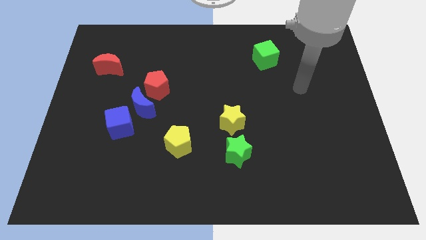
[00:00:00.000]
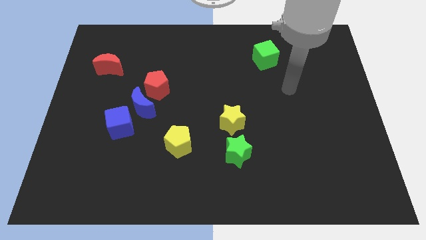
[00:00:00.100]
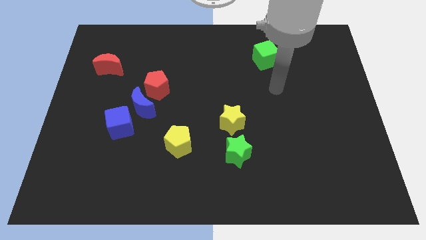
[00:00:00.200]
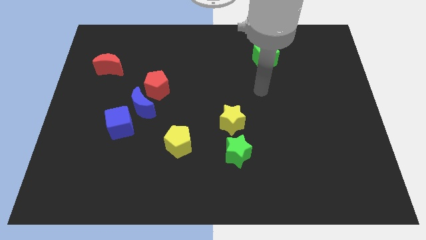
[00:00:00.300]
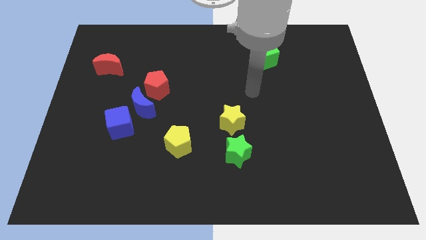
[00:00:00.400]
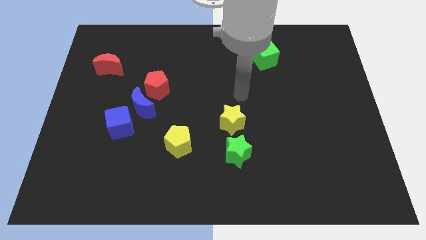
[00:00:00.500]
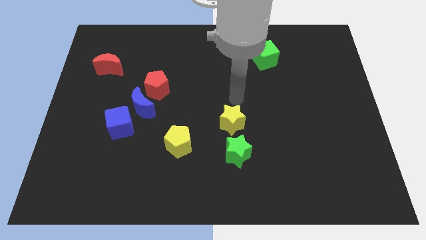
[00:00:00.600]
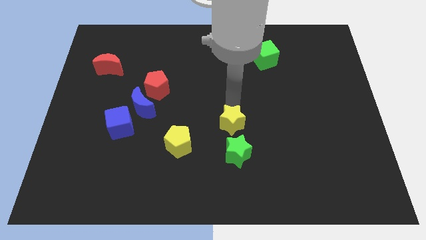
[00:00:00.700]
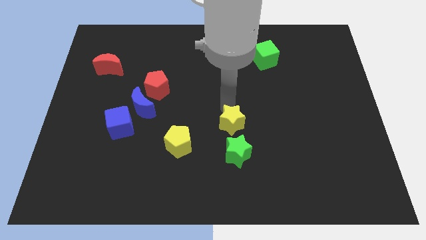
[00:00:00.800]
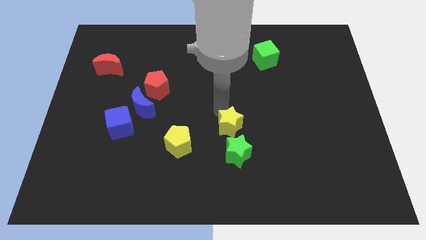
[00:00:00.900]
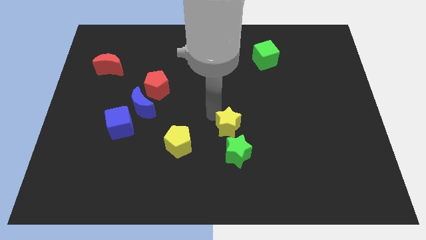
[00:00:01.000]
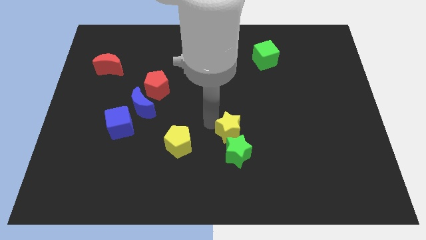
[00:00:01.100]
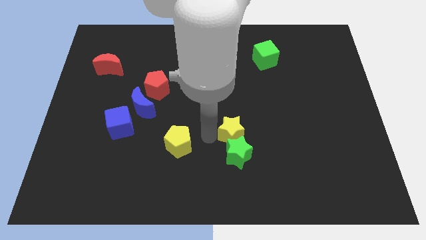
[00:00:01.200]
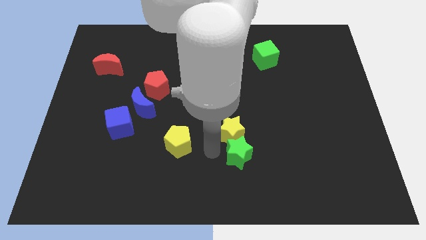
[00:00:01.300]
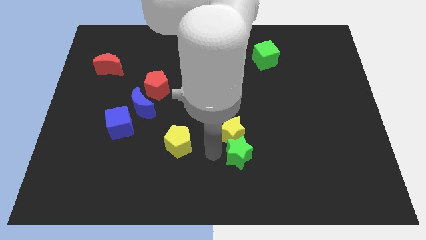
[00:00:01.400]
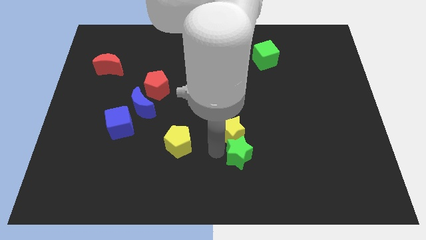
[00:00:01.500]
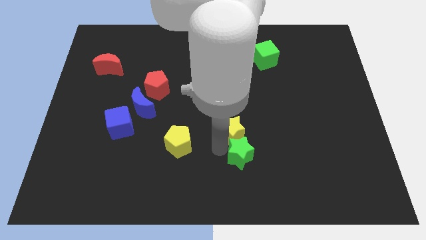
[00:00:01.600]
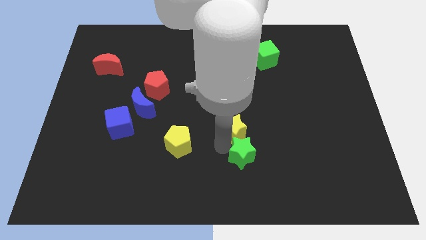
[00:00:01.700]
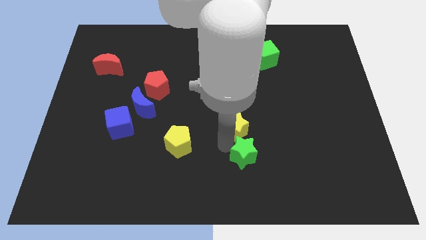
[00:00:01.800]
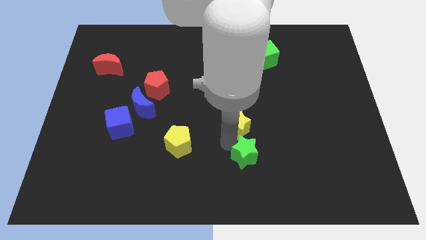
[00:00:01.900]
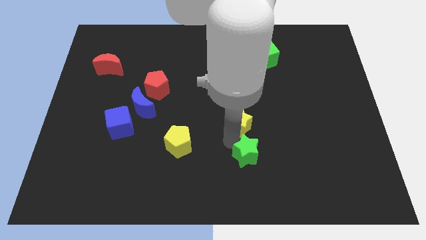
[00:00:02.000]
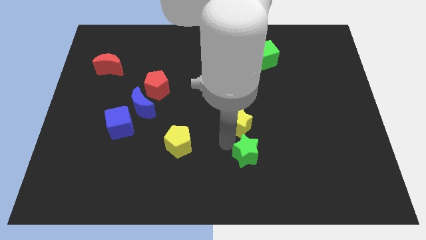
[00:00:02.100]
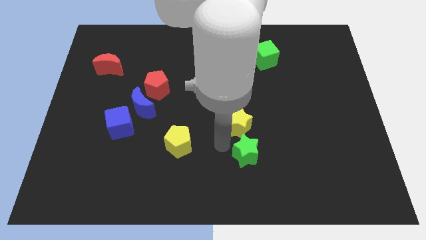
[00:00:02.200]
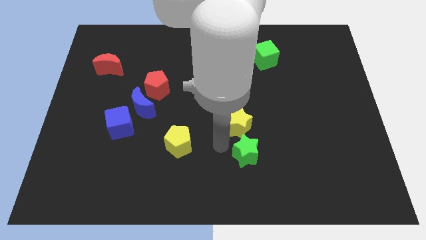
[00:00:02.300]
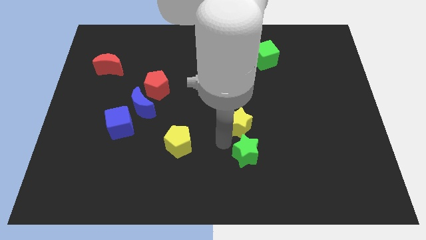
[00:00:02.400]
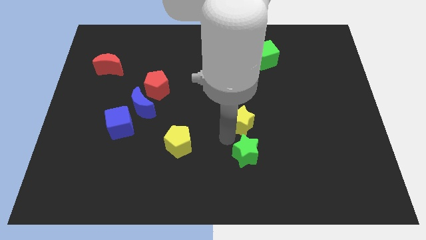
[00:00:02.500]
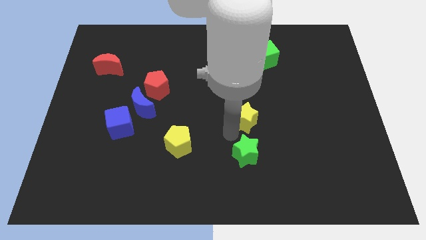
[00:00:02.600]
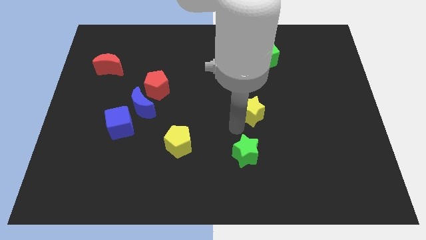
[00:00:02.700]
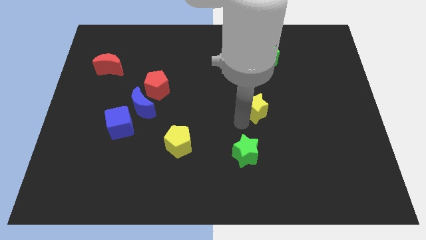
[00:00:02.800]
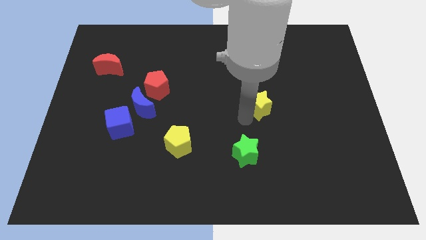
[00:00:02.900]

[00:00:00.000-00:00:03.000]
slide the yellow star a little bit upwards and to the right diagonally

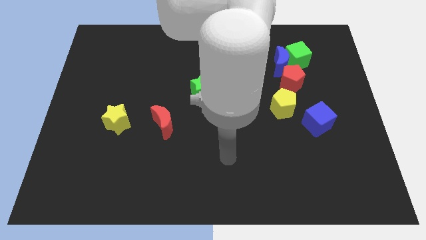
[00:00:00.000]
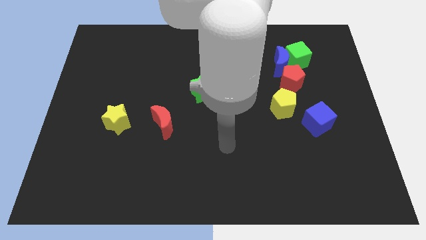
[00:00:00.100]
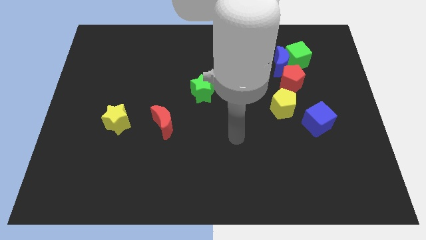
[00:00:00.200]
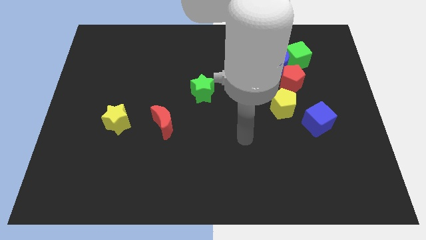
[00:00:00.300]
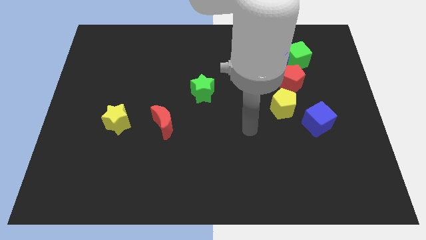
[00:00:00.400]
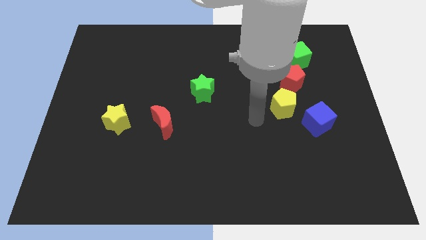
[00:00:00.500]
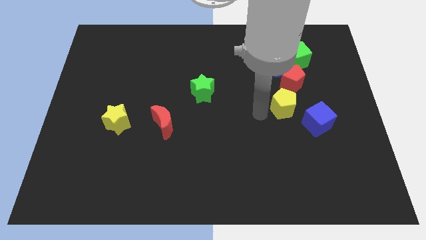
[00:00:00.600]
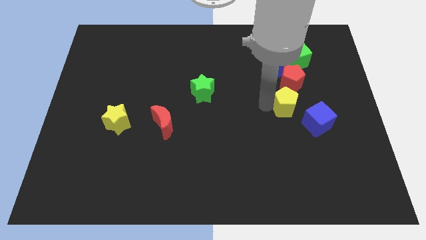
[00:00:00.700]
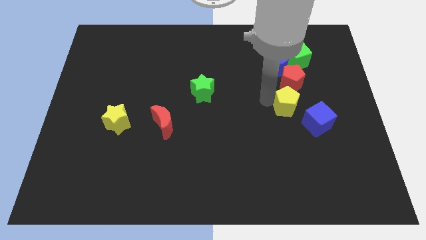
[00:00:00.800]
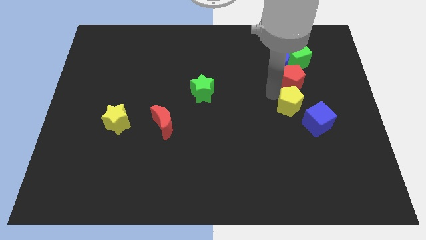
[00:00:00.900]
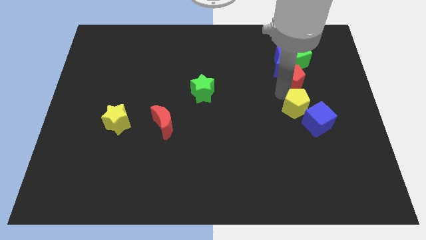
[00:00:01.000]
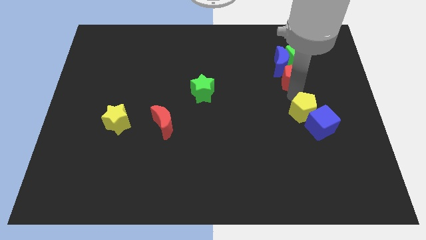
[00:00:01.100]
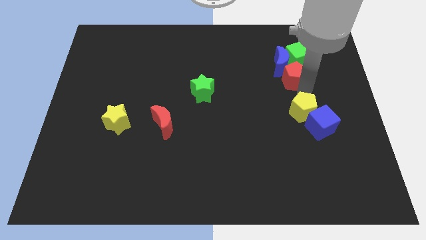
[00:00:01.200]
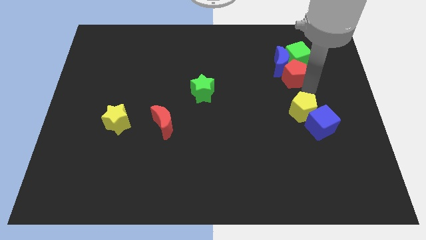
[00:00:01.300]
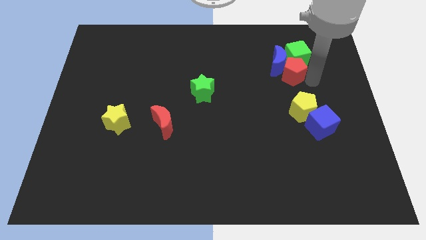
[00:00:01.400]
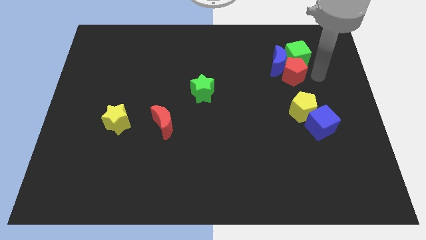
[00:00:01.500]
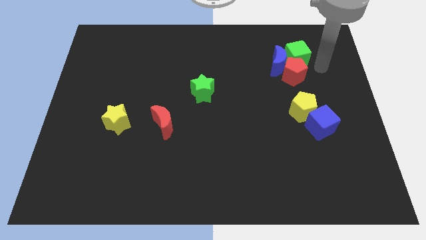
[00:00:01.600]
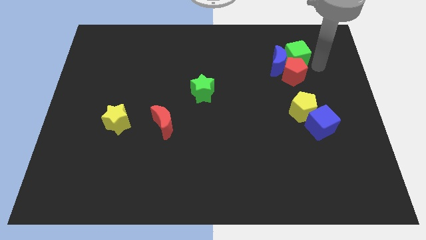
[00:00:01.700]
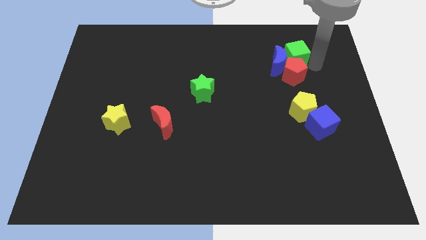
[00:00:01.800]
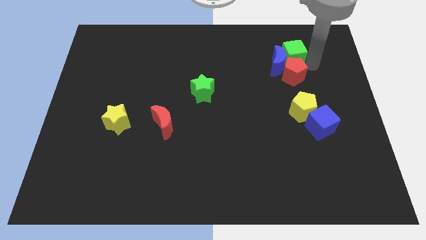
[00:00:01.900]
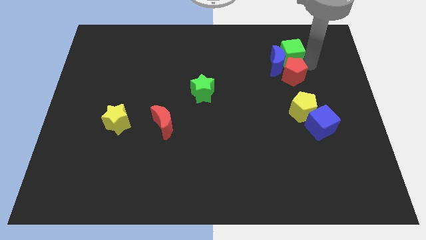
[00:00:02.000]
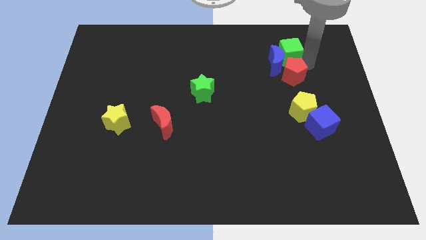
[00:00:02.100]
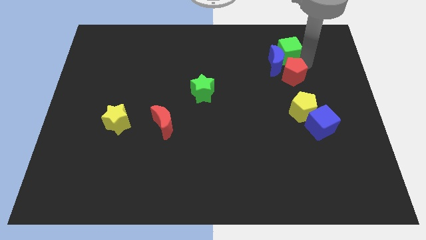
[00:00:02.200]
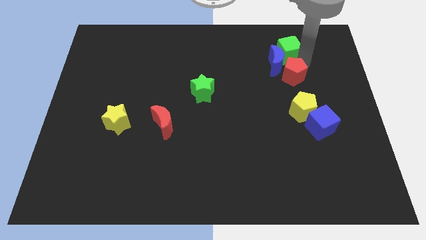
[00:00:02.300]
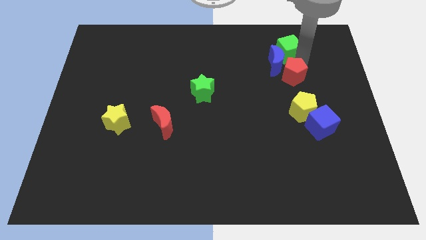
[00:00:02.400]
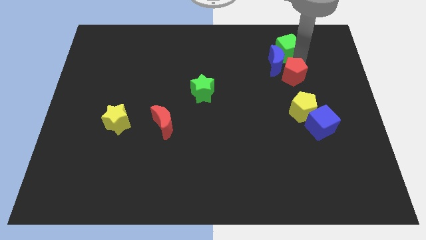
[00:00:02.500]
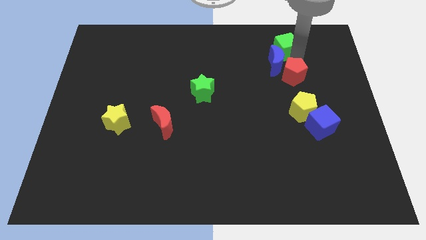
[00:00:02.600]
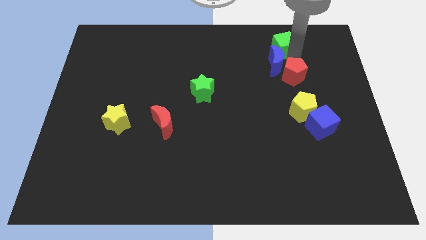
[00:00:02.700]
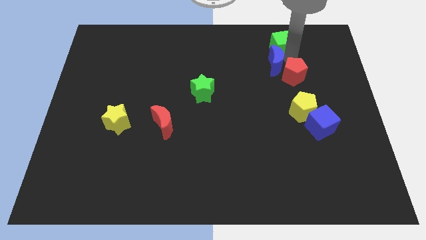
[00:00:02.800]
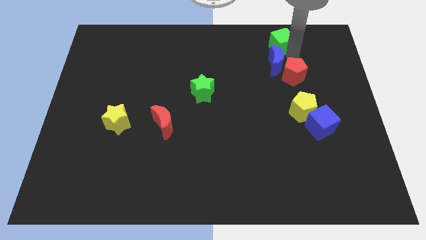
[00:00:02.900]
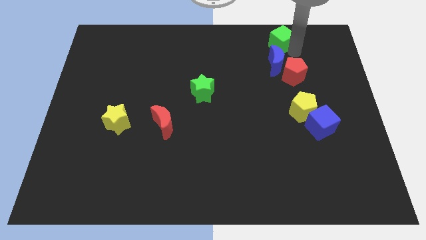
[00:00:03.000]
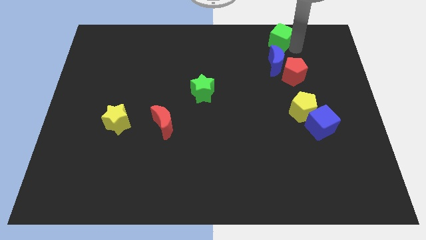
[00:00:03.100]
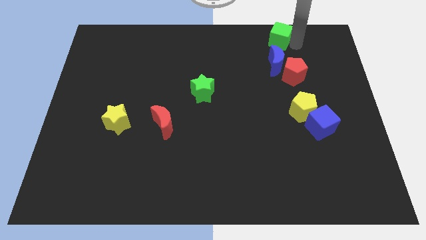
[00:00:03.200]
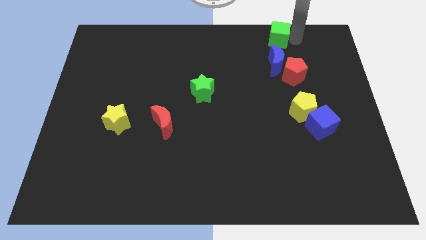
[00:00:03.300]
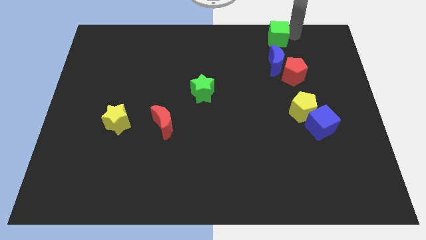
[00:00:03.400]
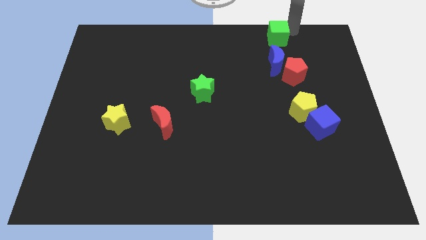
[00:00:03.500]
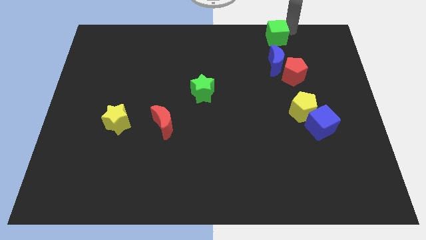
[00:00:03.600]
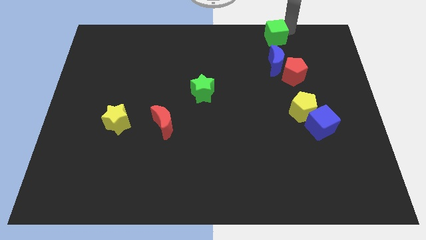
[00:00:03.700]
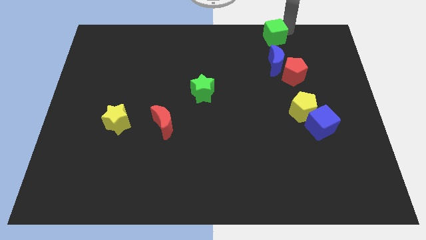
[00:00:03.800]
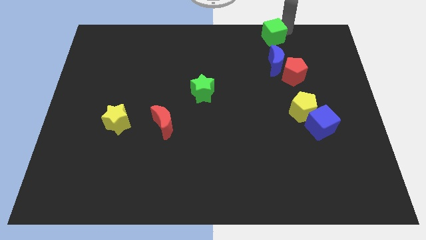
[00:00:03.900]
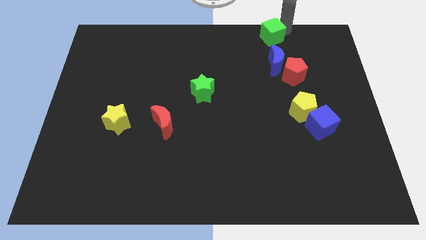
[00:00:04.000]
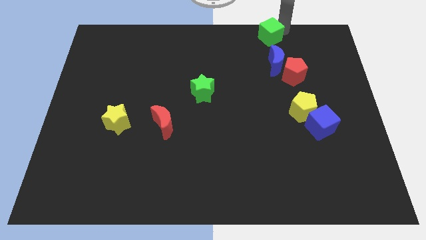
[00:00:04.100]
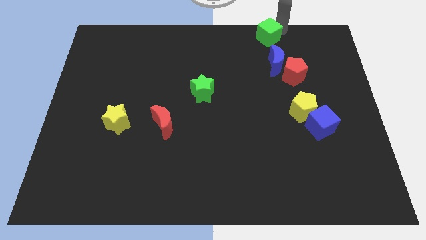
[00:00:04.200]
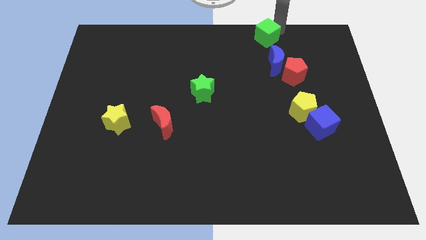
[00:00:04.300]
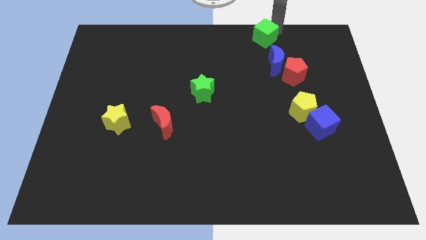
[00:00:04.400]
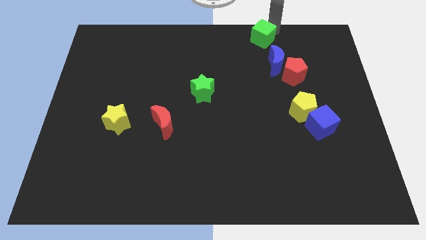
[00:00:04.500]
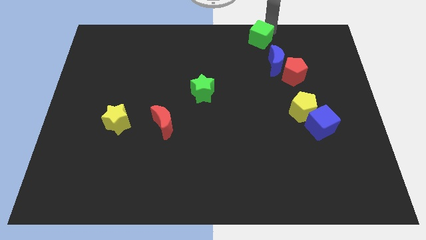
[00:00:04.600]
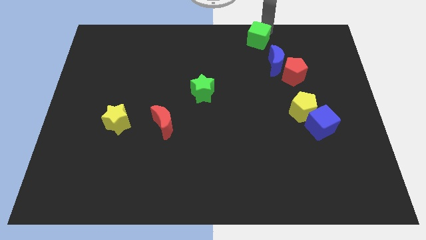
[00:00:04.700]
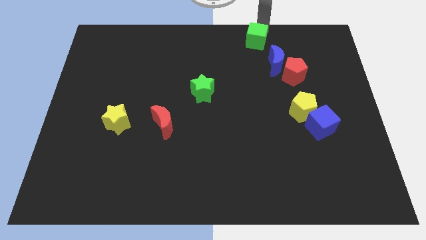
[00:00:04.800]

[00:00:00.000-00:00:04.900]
move the green cube a little to the left

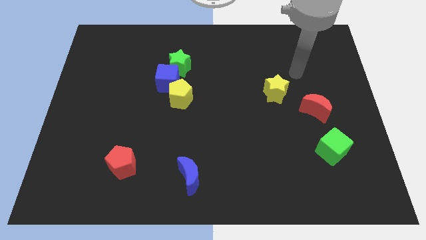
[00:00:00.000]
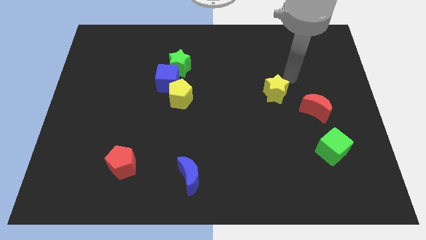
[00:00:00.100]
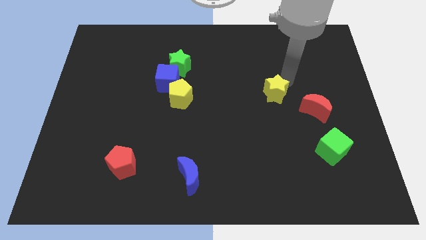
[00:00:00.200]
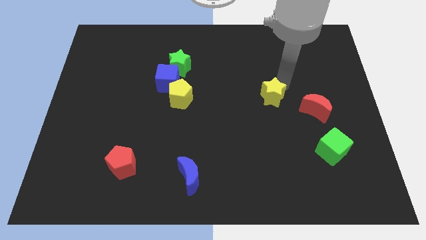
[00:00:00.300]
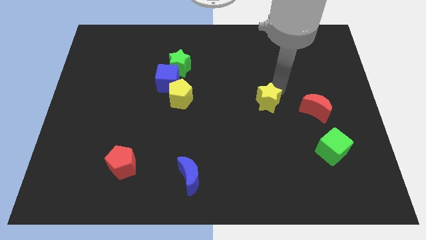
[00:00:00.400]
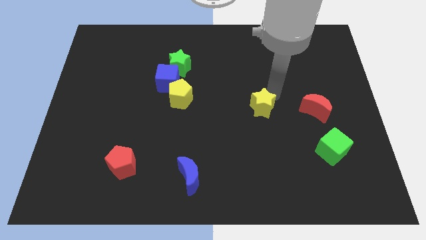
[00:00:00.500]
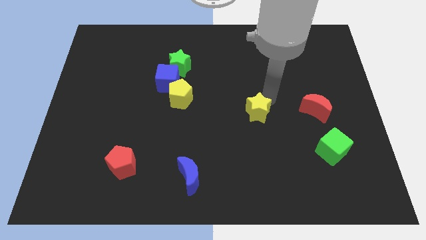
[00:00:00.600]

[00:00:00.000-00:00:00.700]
move the yellow star downwards and to the left a bit
